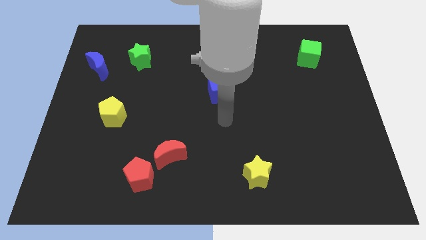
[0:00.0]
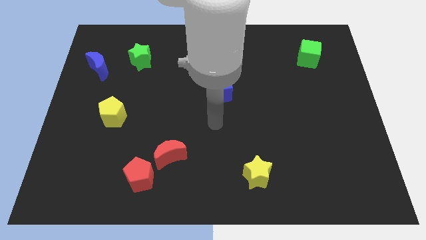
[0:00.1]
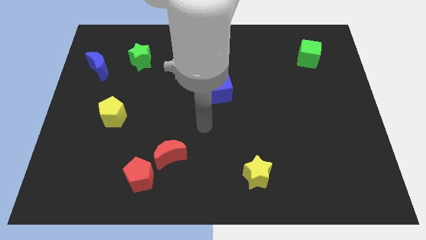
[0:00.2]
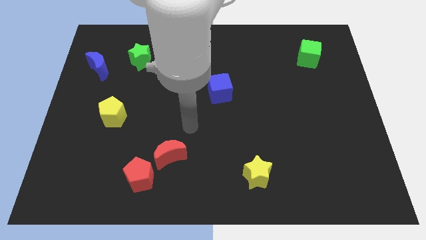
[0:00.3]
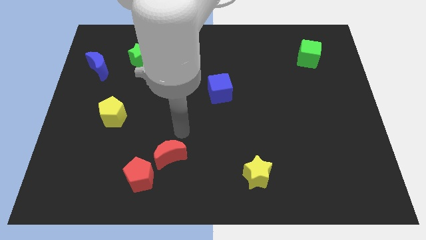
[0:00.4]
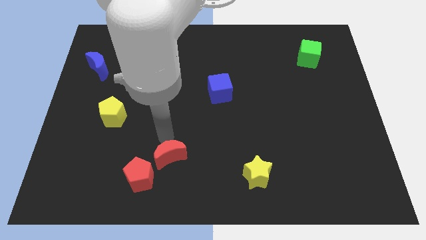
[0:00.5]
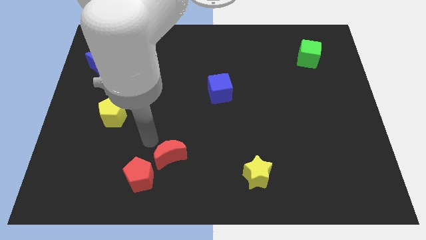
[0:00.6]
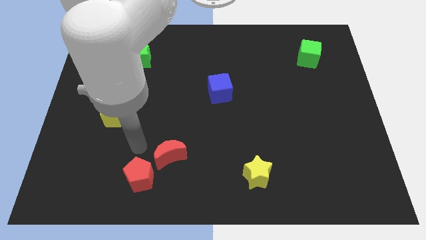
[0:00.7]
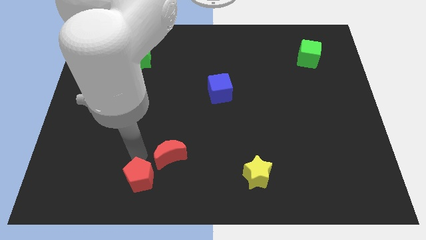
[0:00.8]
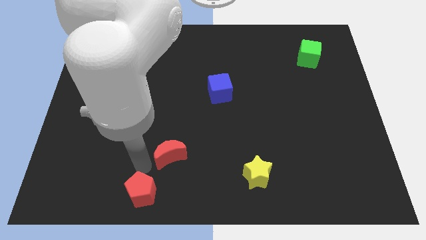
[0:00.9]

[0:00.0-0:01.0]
pull the red moon apart from the red pentagon

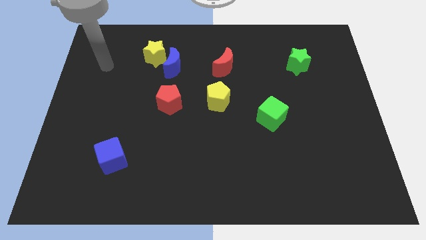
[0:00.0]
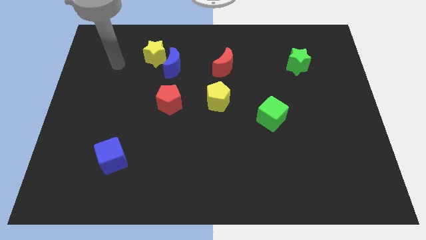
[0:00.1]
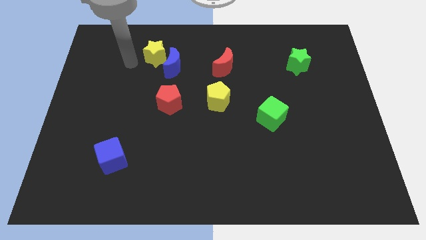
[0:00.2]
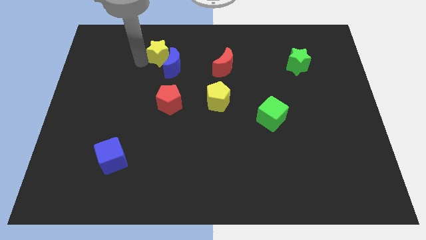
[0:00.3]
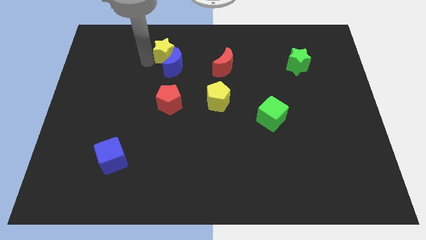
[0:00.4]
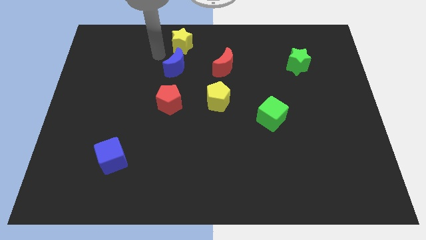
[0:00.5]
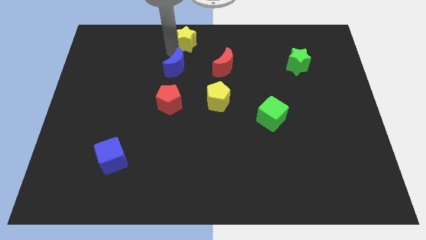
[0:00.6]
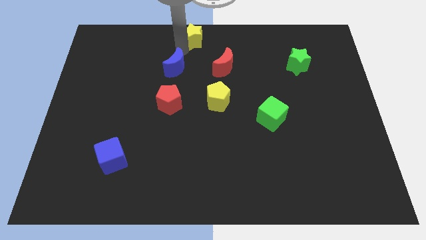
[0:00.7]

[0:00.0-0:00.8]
pull the blue moon apart from the yellow star

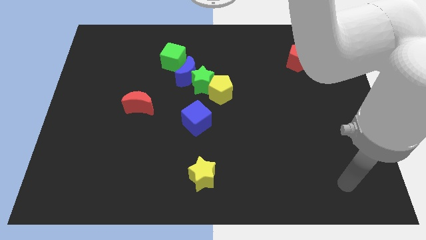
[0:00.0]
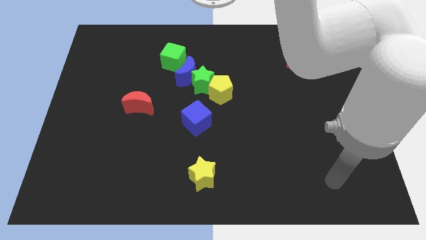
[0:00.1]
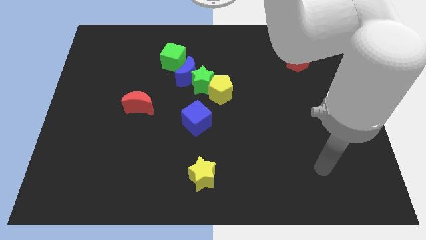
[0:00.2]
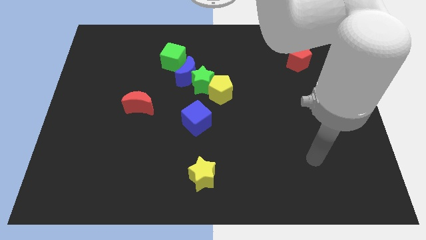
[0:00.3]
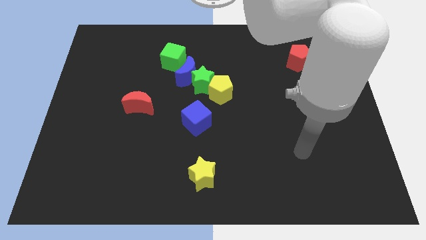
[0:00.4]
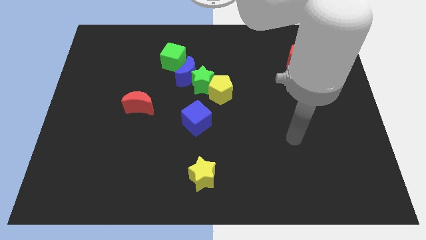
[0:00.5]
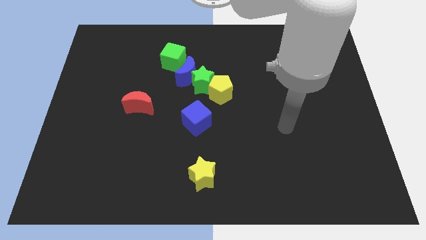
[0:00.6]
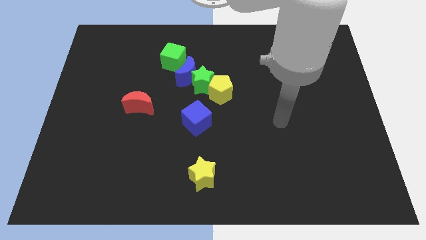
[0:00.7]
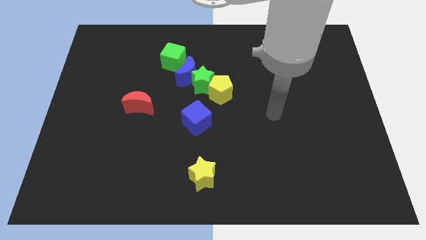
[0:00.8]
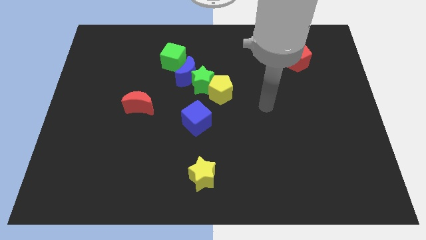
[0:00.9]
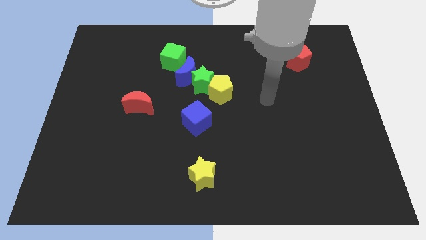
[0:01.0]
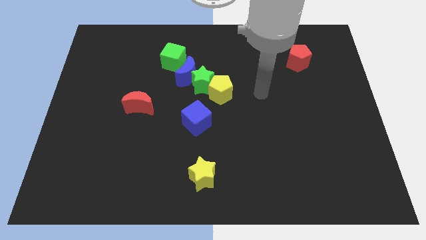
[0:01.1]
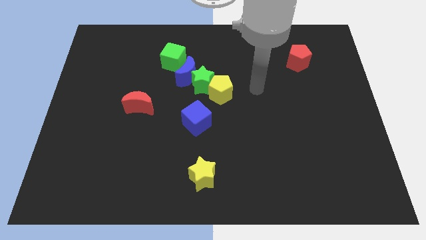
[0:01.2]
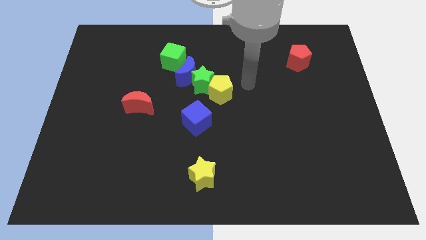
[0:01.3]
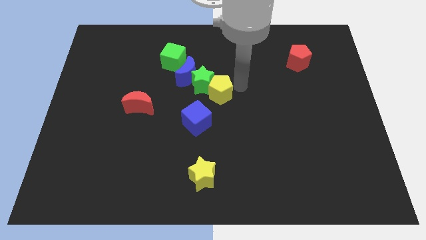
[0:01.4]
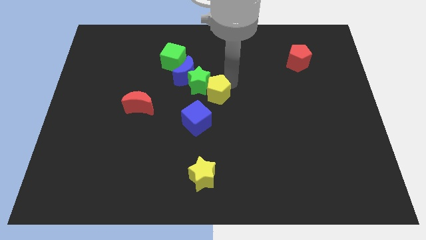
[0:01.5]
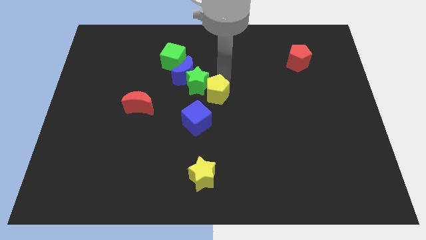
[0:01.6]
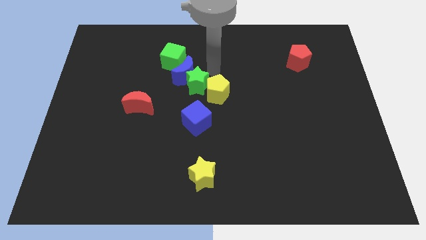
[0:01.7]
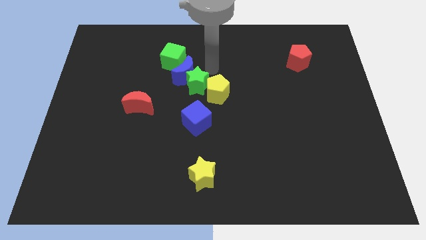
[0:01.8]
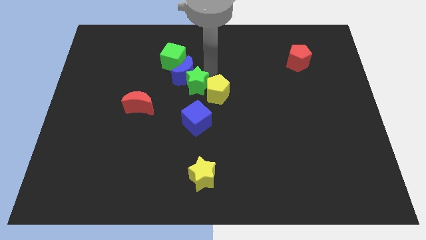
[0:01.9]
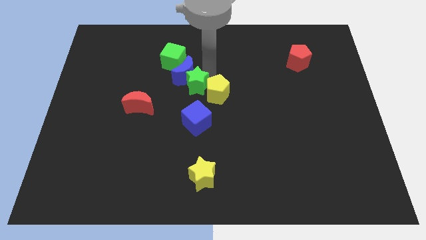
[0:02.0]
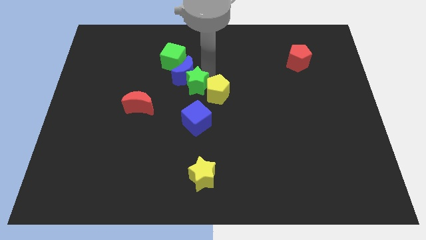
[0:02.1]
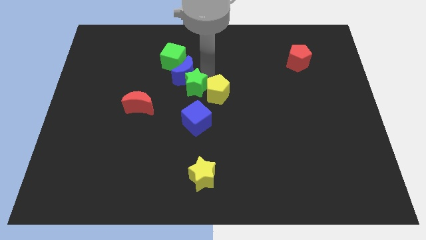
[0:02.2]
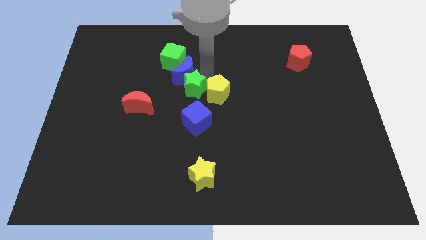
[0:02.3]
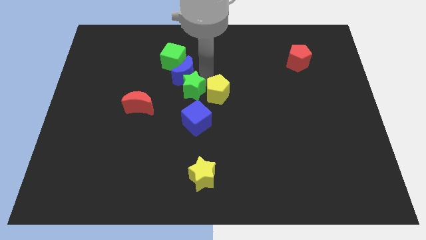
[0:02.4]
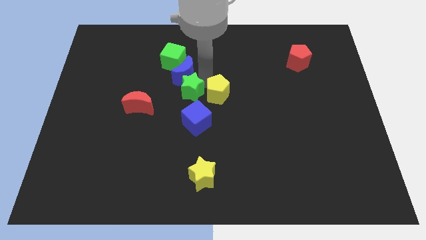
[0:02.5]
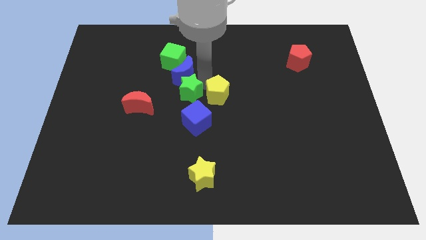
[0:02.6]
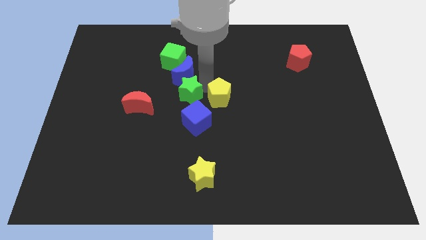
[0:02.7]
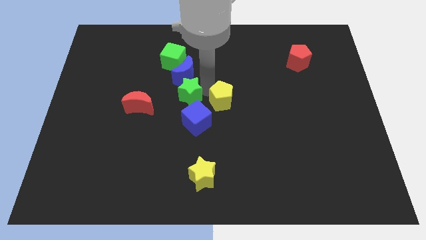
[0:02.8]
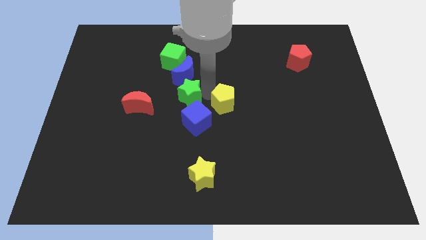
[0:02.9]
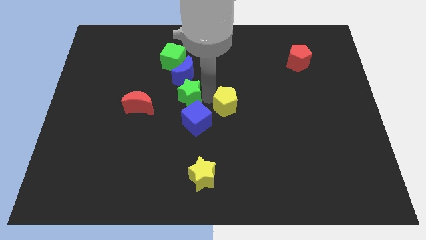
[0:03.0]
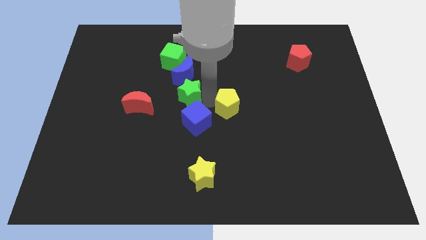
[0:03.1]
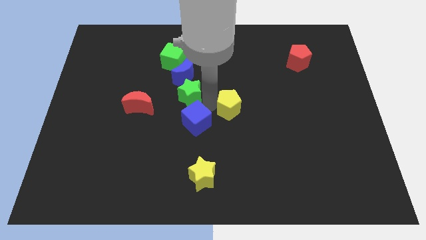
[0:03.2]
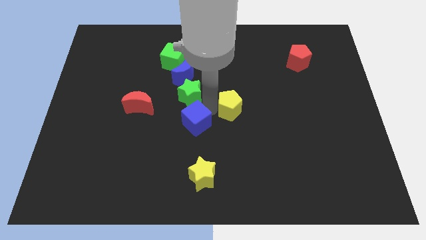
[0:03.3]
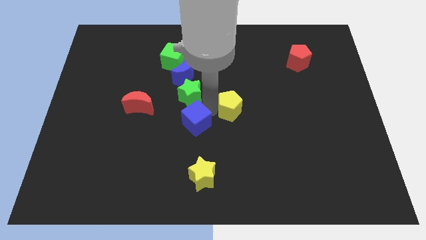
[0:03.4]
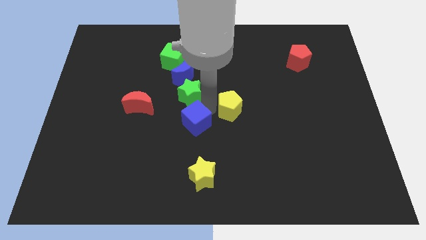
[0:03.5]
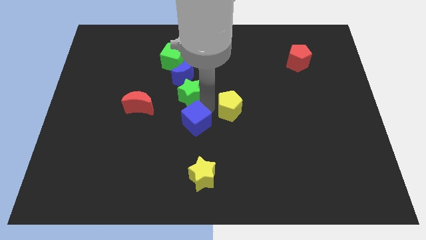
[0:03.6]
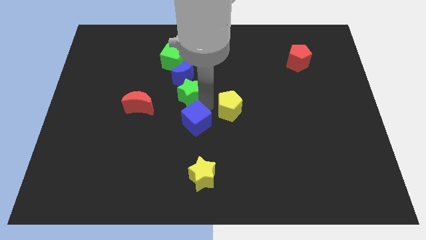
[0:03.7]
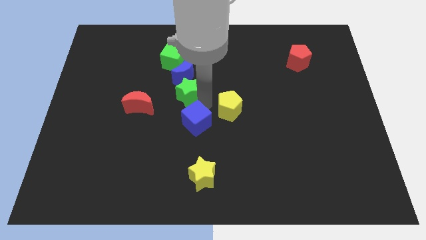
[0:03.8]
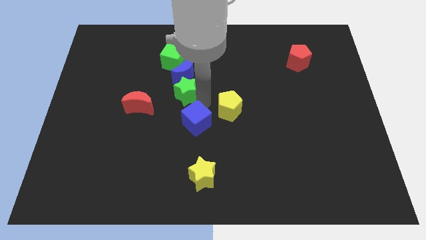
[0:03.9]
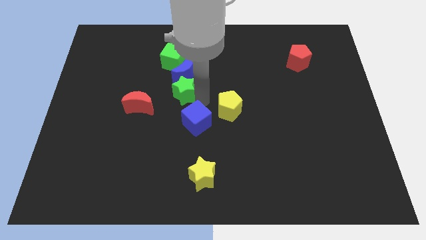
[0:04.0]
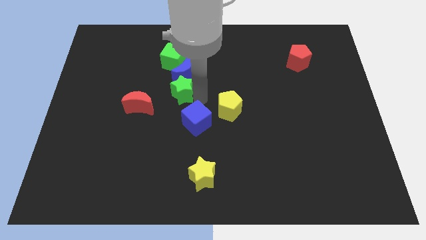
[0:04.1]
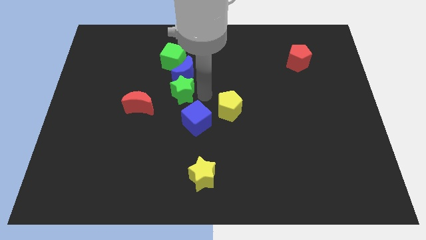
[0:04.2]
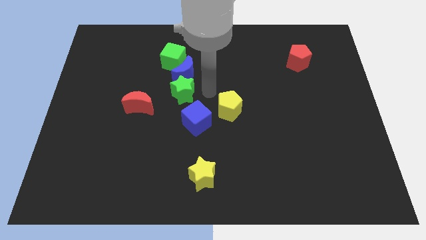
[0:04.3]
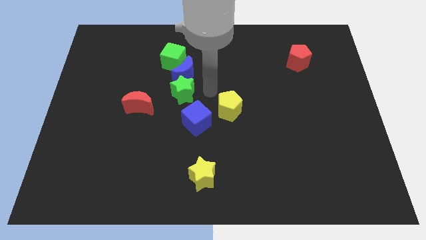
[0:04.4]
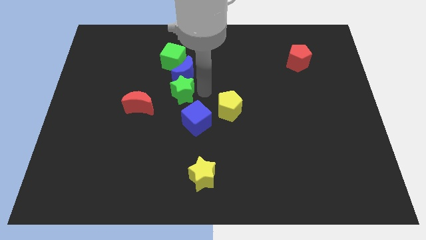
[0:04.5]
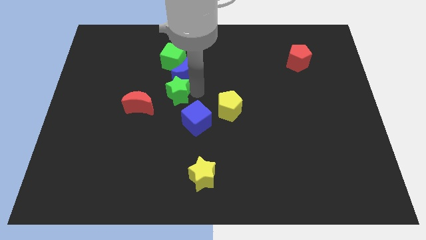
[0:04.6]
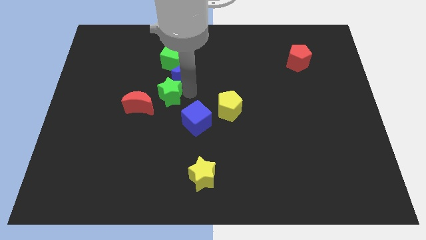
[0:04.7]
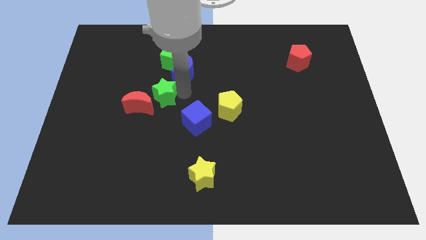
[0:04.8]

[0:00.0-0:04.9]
move the green star away from the blue moon and yellow pentagon

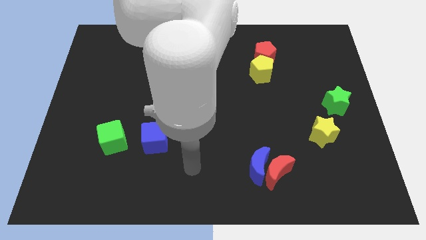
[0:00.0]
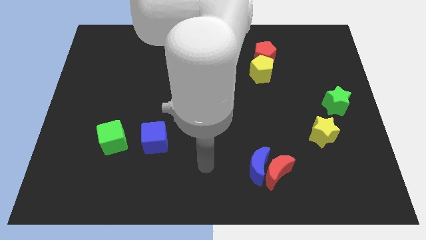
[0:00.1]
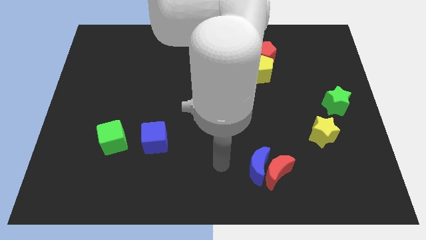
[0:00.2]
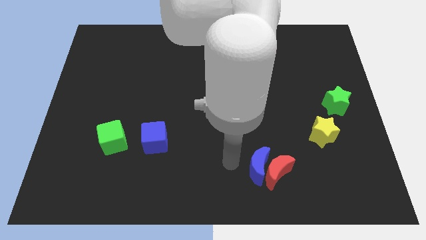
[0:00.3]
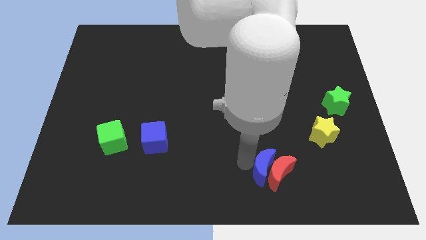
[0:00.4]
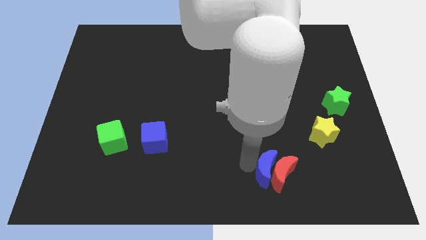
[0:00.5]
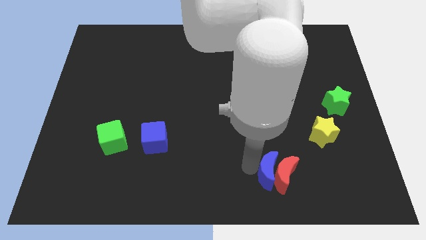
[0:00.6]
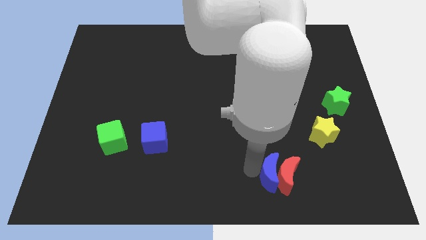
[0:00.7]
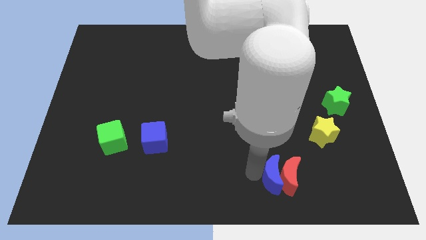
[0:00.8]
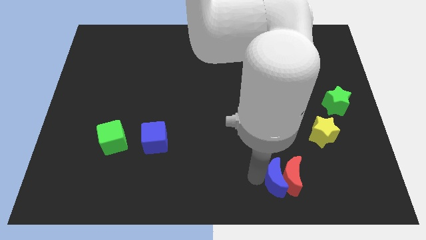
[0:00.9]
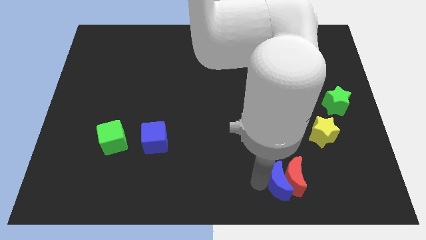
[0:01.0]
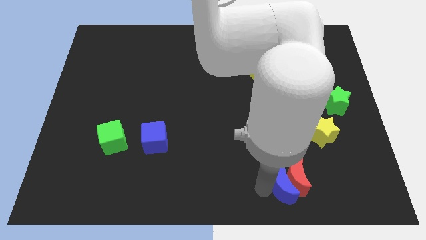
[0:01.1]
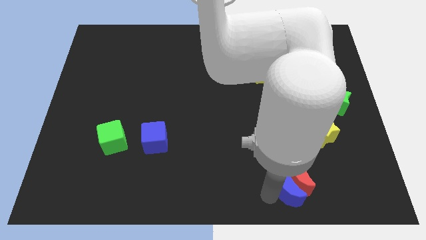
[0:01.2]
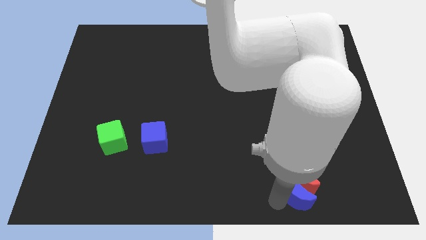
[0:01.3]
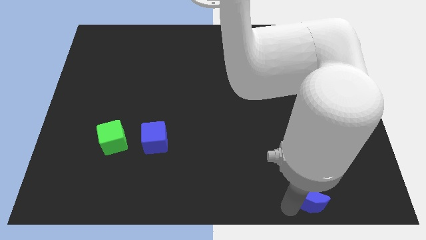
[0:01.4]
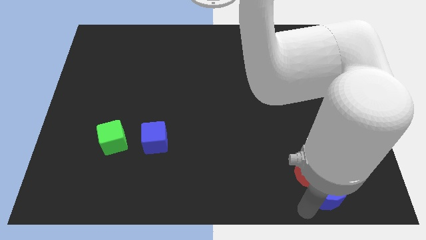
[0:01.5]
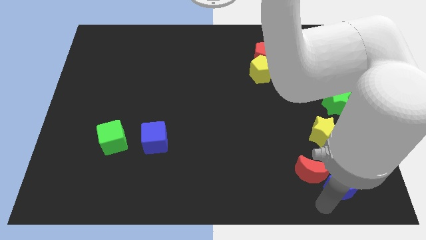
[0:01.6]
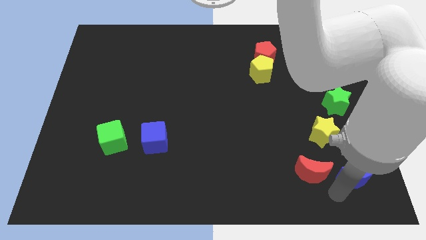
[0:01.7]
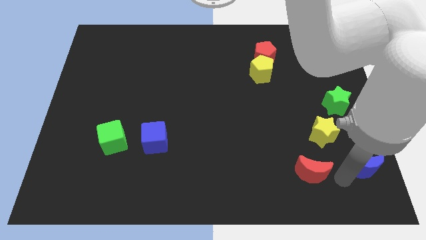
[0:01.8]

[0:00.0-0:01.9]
move the red moon away from the blue moon

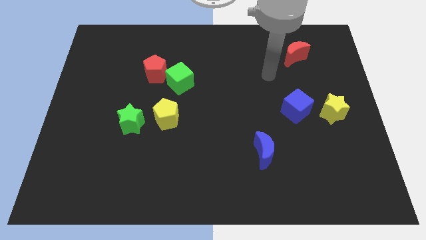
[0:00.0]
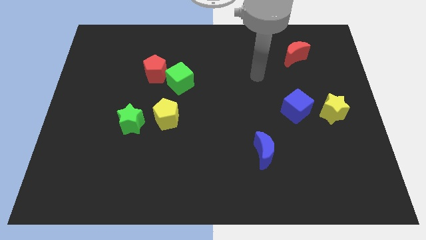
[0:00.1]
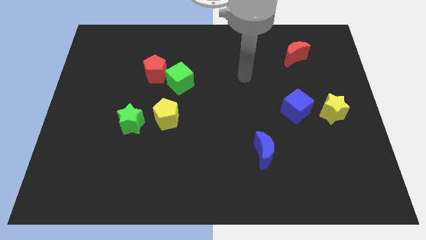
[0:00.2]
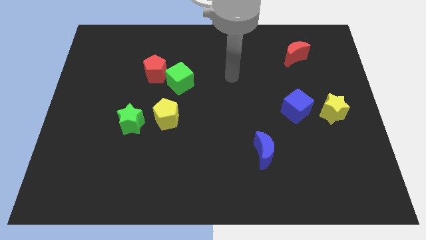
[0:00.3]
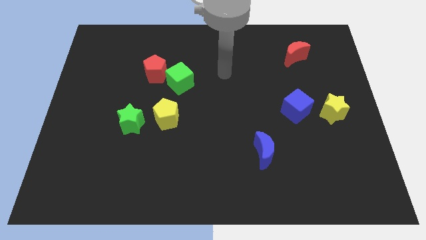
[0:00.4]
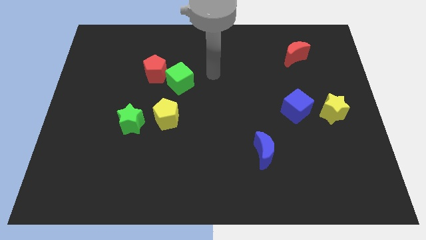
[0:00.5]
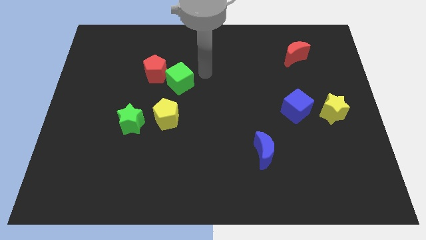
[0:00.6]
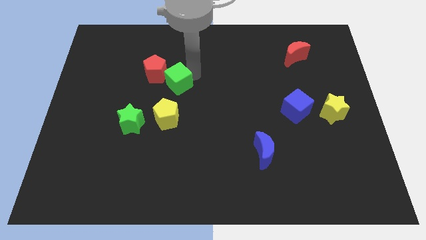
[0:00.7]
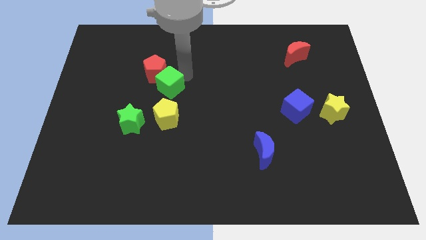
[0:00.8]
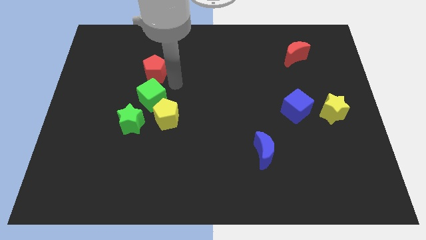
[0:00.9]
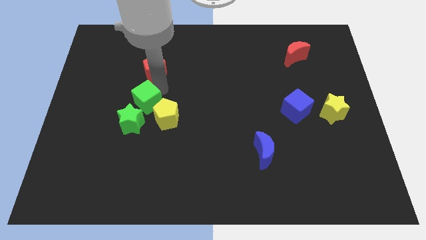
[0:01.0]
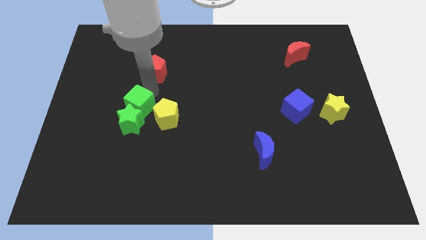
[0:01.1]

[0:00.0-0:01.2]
separate the red pentagon from the green cube
